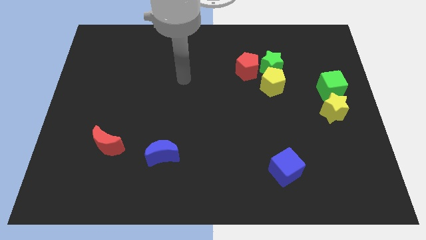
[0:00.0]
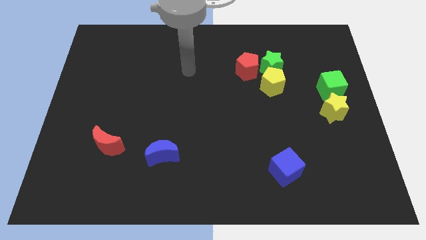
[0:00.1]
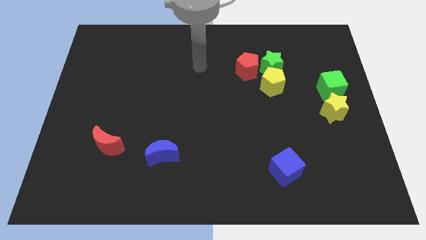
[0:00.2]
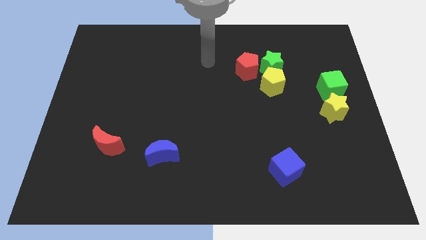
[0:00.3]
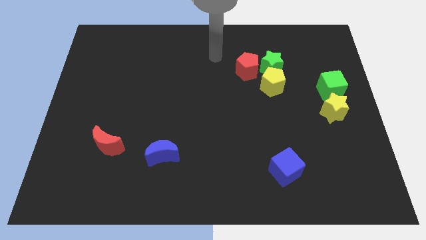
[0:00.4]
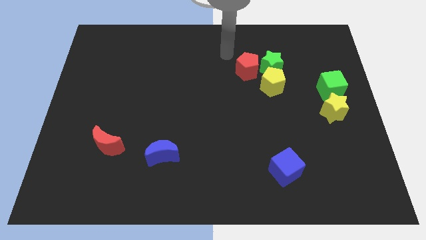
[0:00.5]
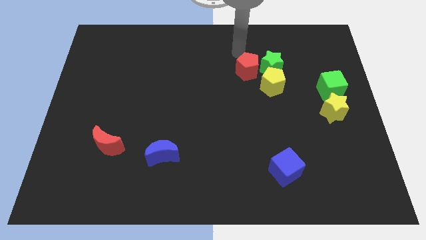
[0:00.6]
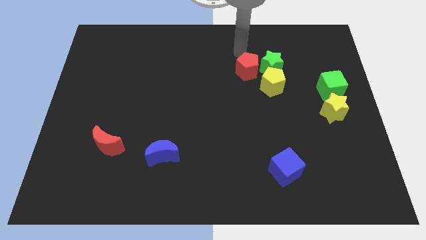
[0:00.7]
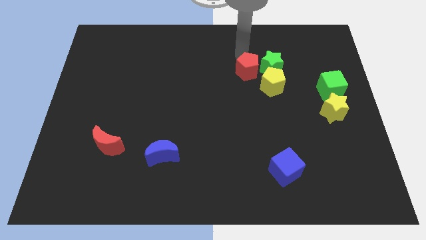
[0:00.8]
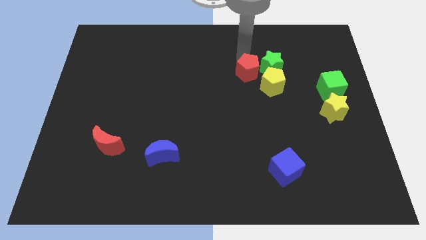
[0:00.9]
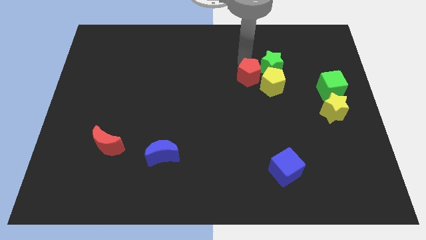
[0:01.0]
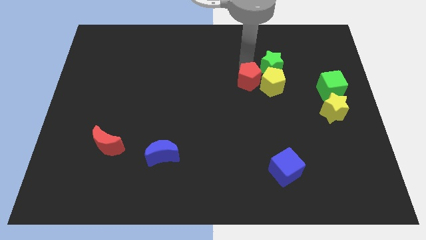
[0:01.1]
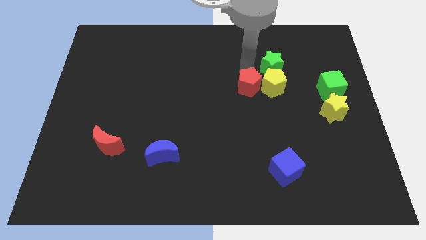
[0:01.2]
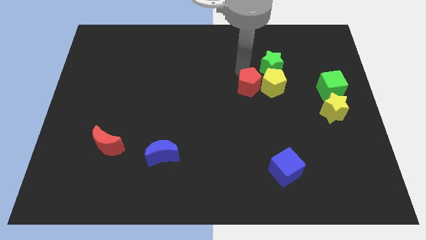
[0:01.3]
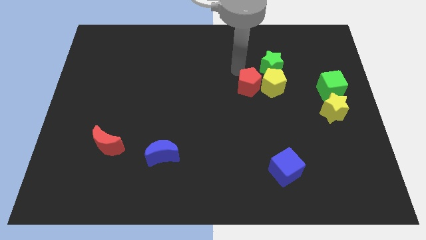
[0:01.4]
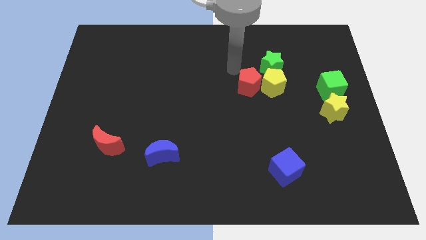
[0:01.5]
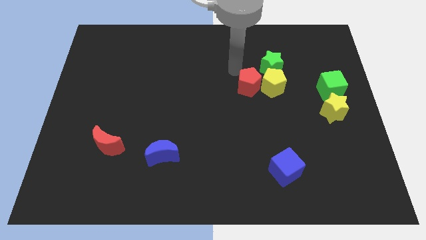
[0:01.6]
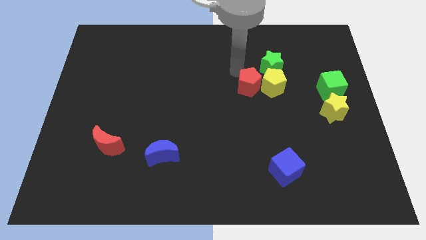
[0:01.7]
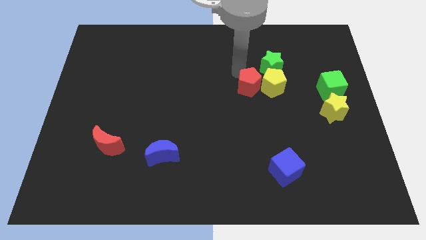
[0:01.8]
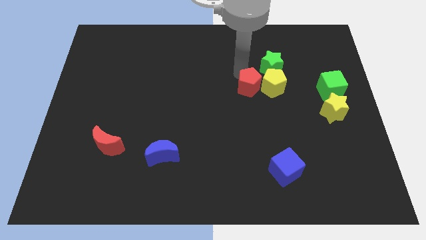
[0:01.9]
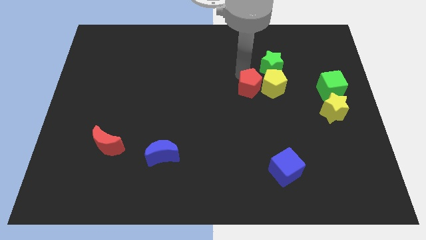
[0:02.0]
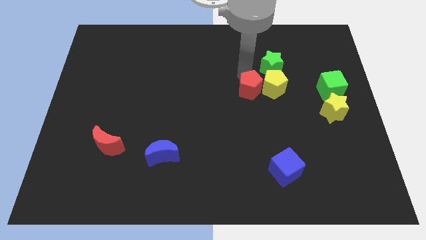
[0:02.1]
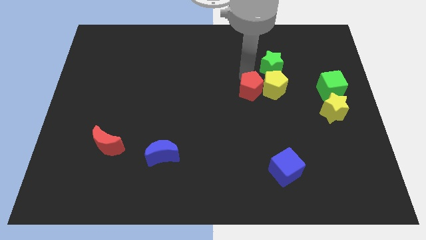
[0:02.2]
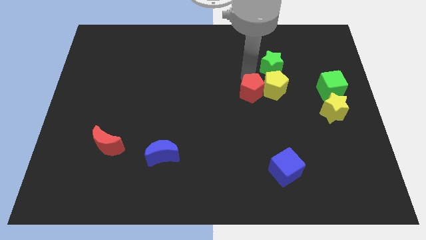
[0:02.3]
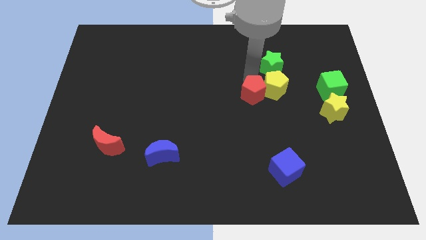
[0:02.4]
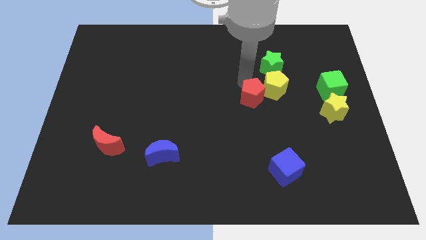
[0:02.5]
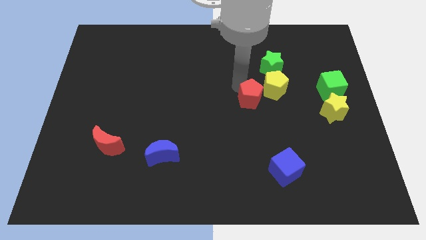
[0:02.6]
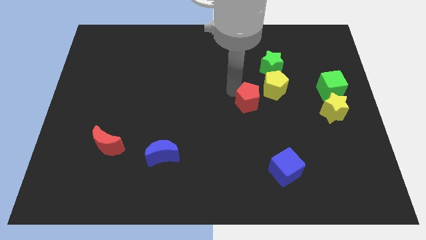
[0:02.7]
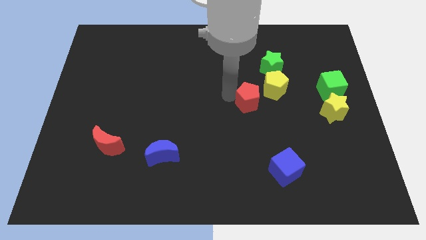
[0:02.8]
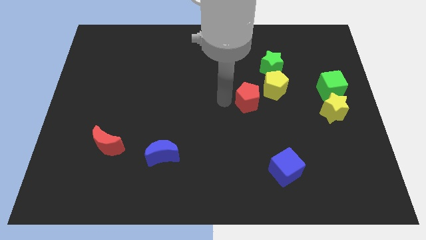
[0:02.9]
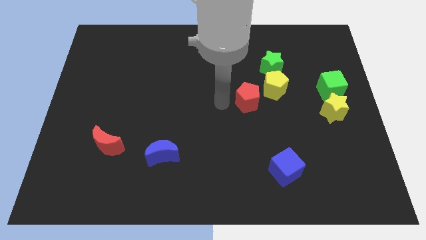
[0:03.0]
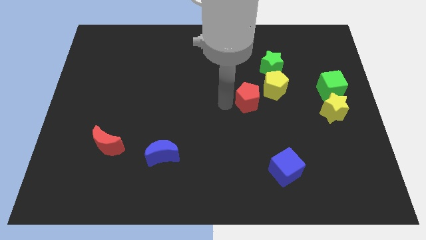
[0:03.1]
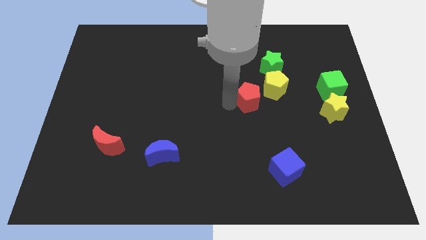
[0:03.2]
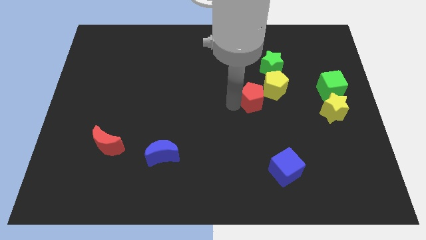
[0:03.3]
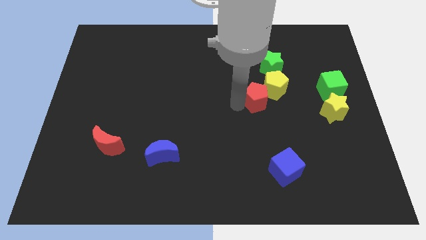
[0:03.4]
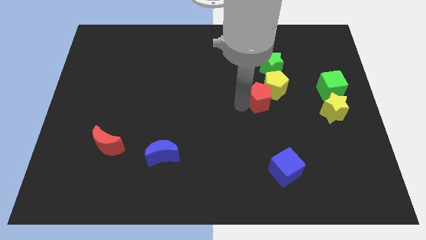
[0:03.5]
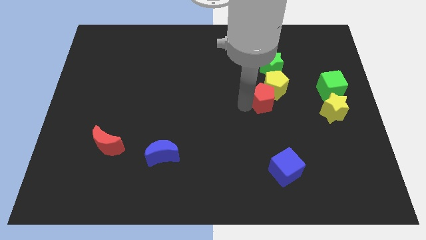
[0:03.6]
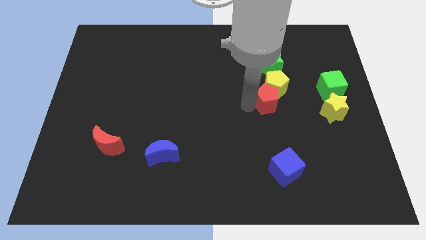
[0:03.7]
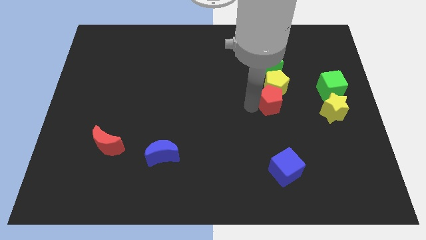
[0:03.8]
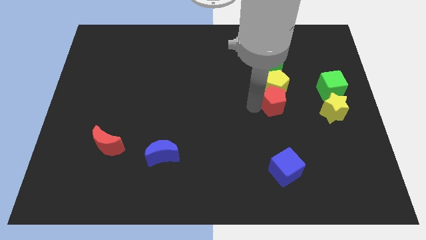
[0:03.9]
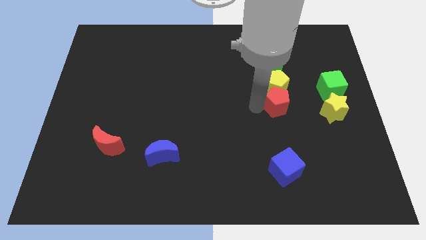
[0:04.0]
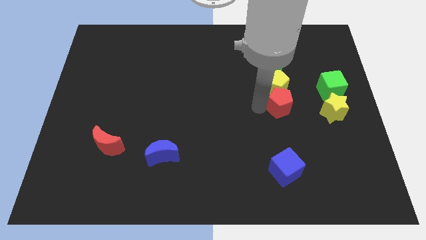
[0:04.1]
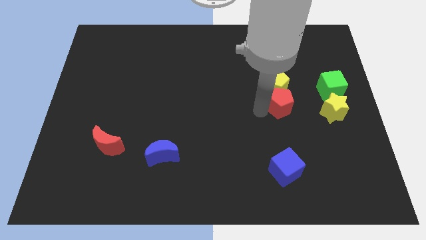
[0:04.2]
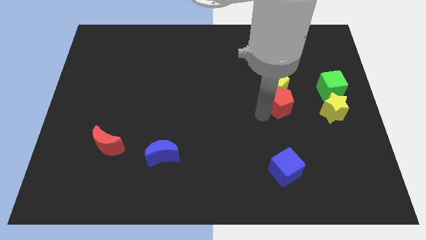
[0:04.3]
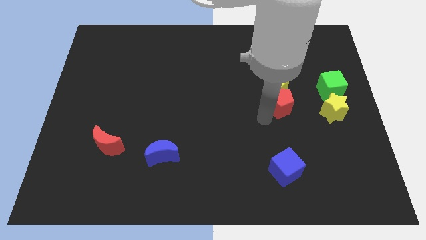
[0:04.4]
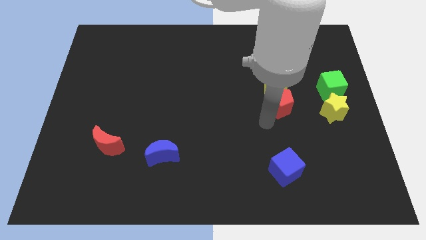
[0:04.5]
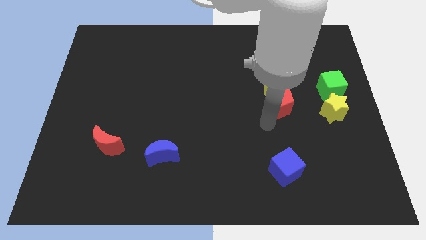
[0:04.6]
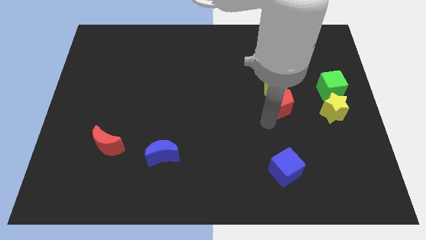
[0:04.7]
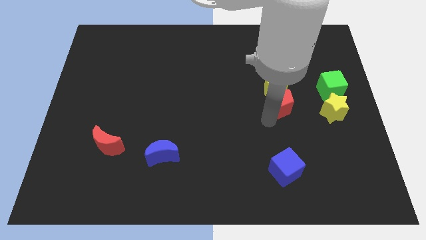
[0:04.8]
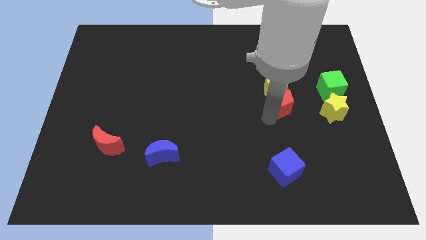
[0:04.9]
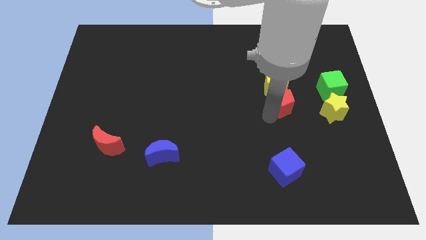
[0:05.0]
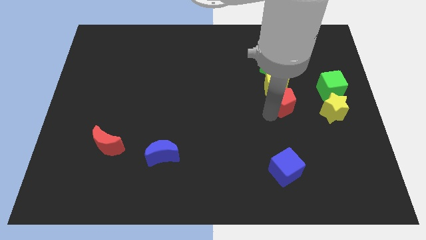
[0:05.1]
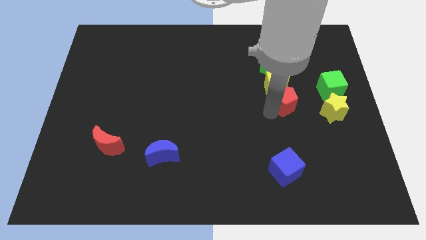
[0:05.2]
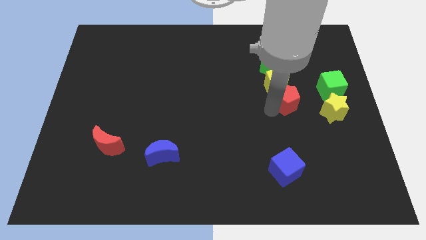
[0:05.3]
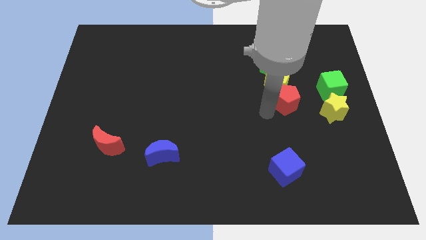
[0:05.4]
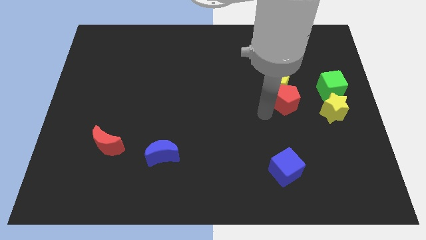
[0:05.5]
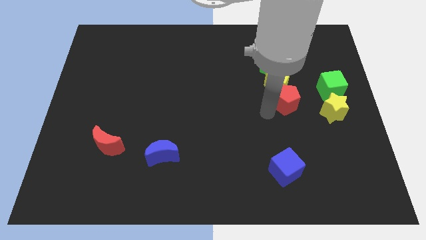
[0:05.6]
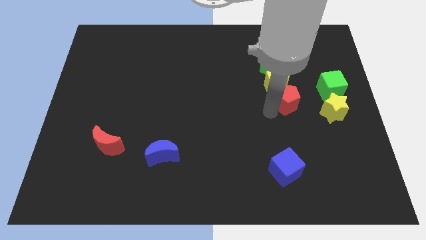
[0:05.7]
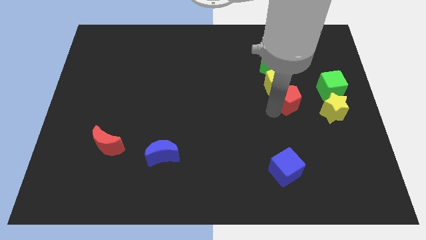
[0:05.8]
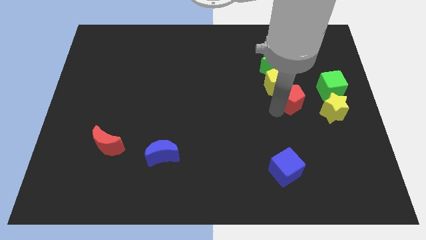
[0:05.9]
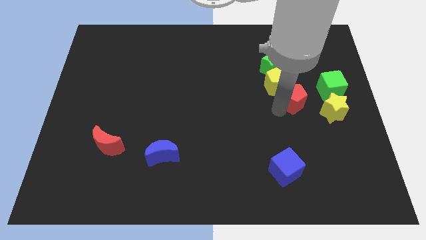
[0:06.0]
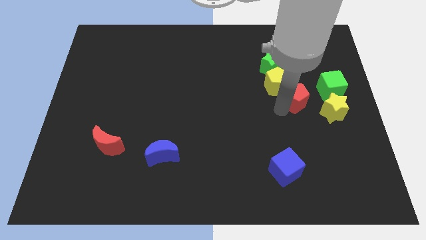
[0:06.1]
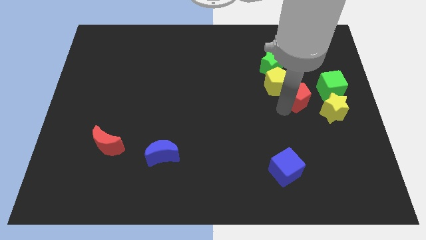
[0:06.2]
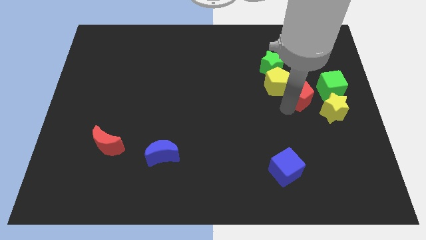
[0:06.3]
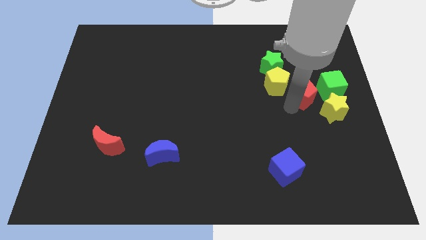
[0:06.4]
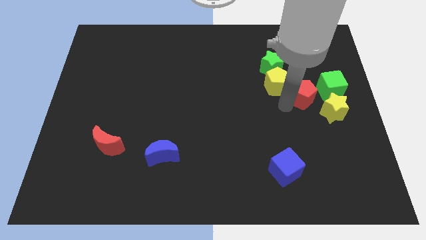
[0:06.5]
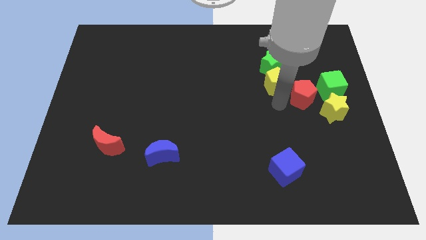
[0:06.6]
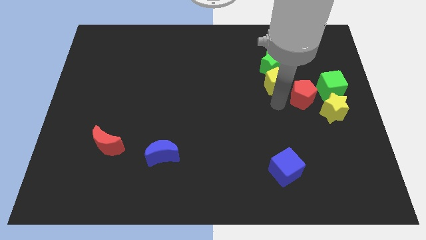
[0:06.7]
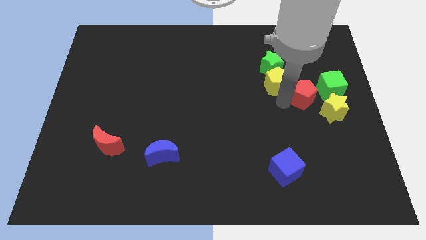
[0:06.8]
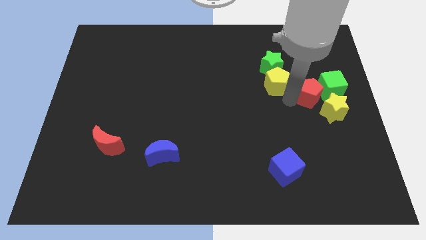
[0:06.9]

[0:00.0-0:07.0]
slide the red pentagon close to the green cube
